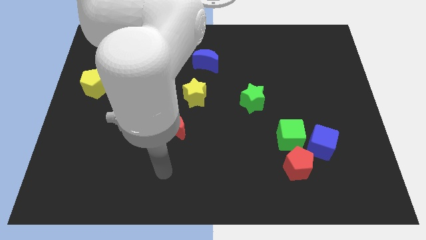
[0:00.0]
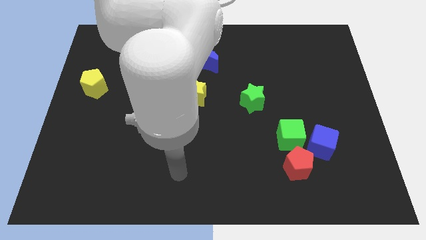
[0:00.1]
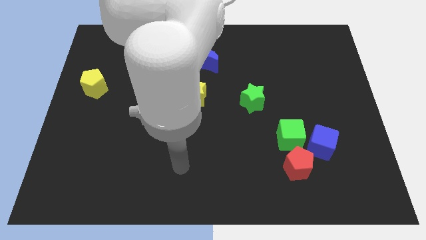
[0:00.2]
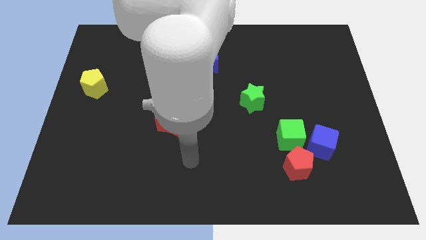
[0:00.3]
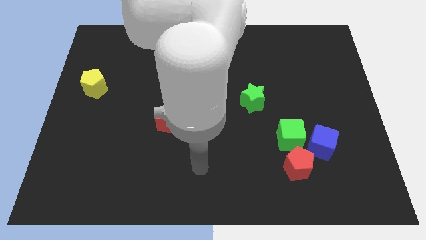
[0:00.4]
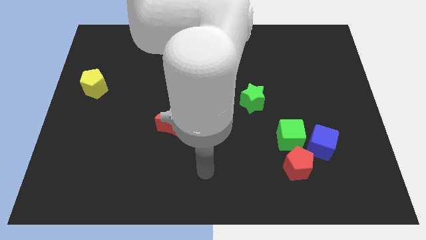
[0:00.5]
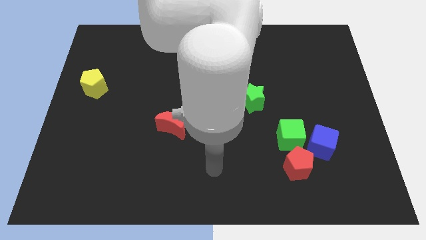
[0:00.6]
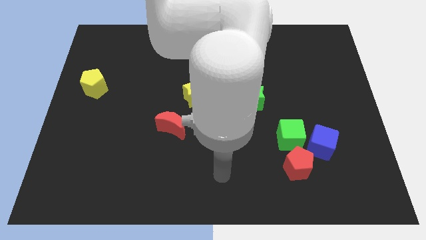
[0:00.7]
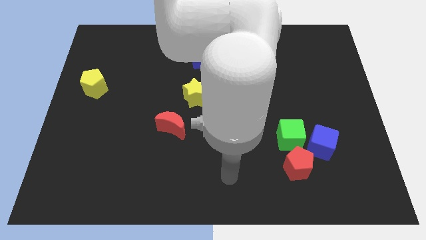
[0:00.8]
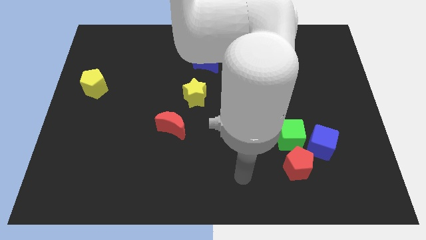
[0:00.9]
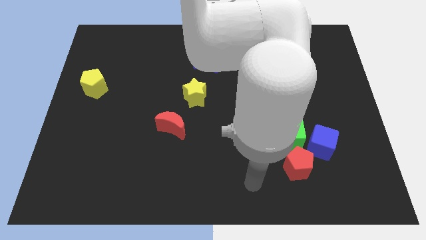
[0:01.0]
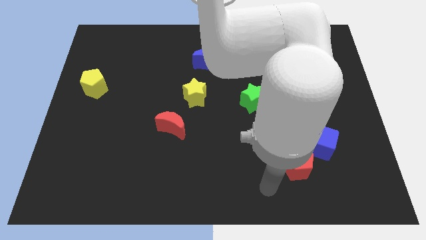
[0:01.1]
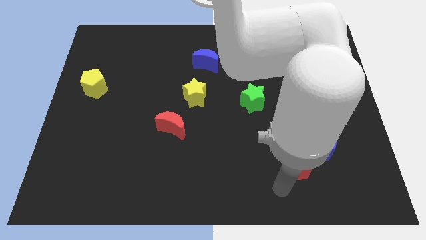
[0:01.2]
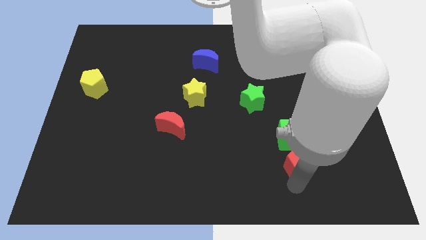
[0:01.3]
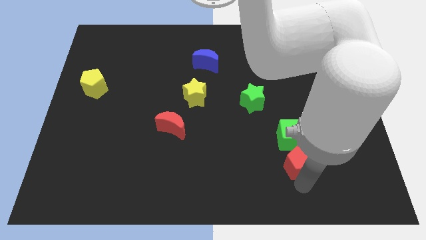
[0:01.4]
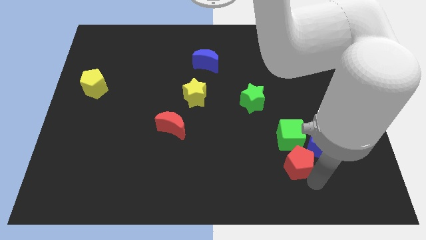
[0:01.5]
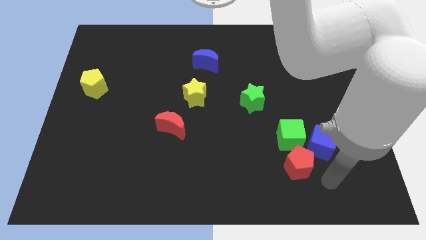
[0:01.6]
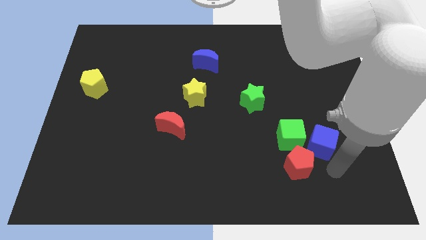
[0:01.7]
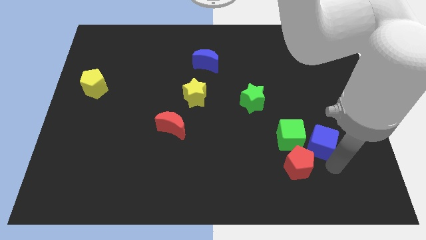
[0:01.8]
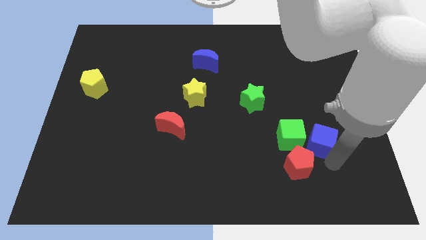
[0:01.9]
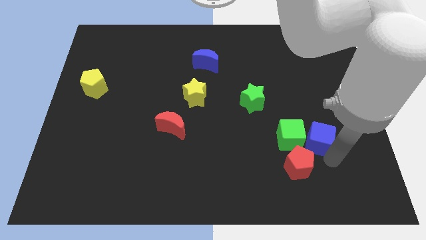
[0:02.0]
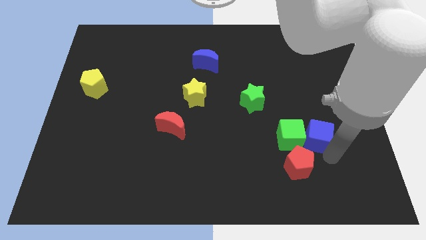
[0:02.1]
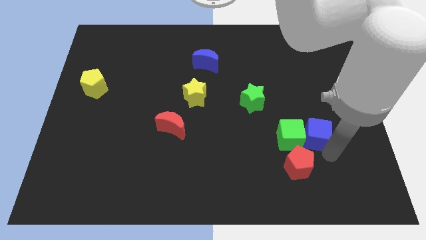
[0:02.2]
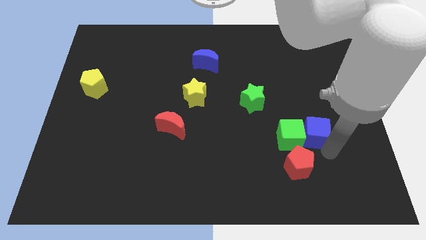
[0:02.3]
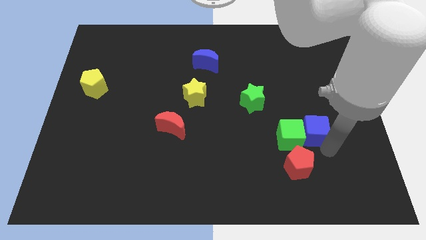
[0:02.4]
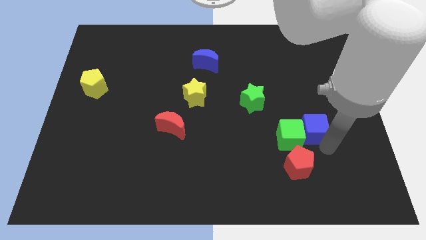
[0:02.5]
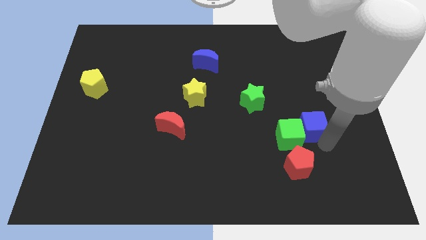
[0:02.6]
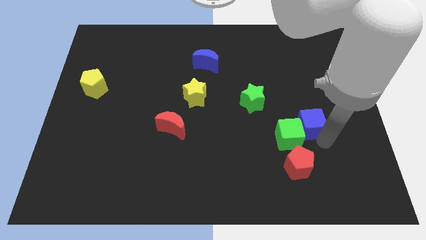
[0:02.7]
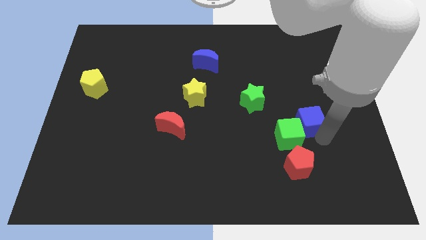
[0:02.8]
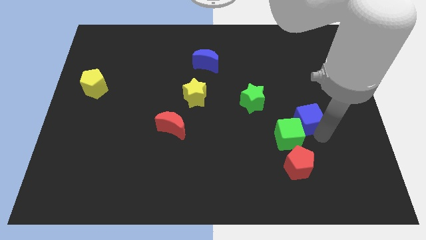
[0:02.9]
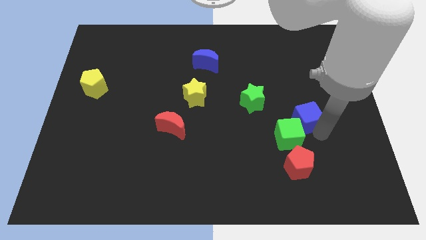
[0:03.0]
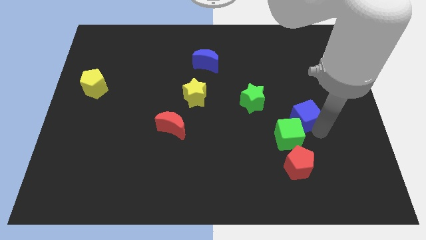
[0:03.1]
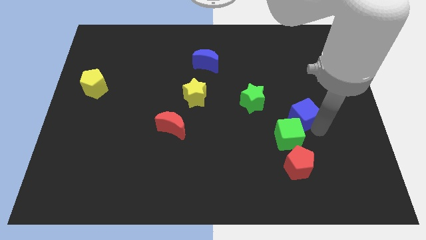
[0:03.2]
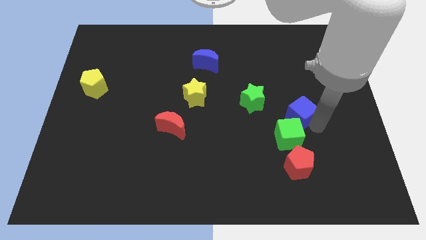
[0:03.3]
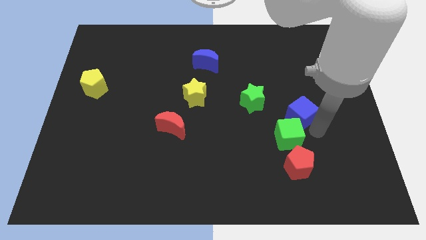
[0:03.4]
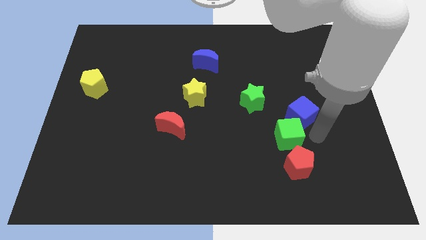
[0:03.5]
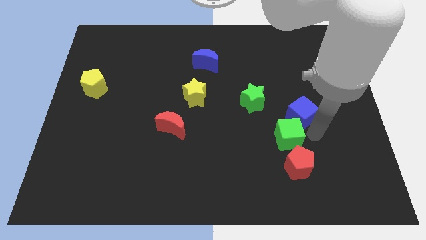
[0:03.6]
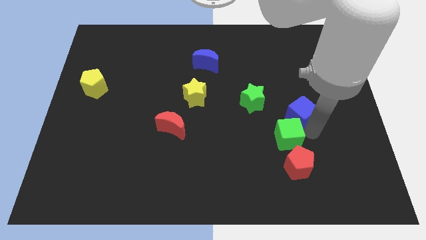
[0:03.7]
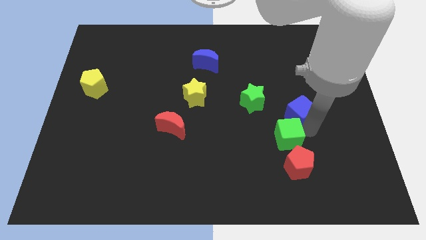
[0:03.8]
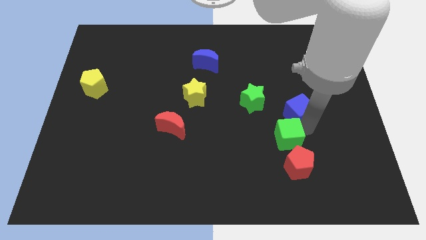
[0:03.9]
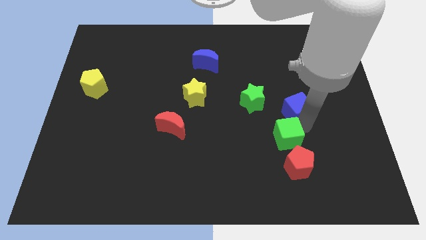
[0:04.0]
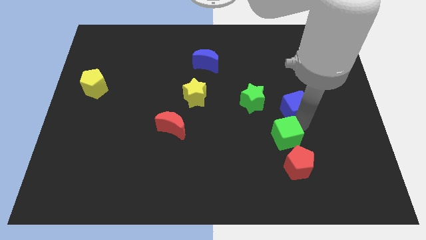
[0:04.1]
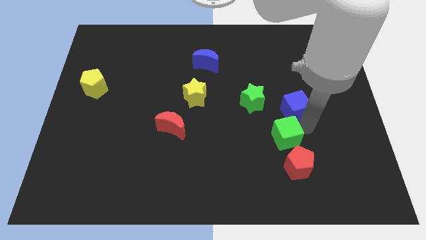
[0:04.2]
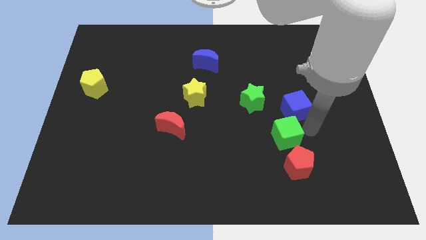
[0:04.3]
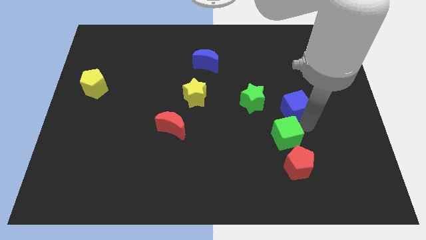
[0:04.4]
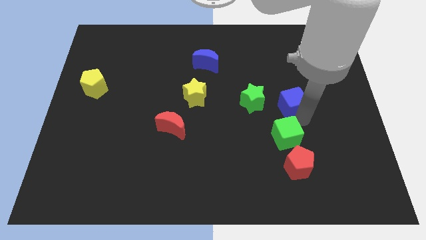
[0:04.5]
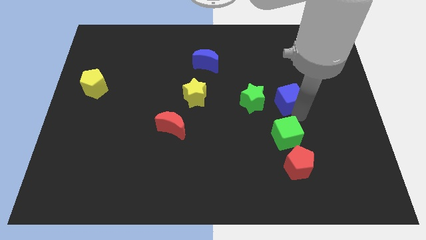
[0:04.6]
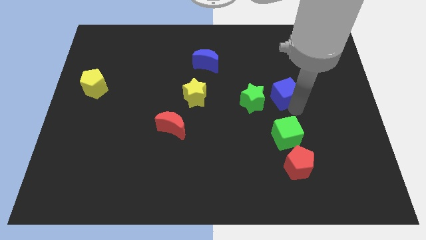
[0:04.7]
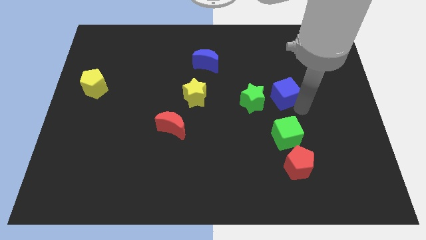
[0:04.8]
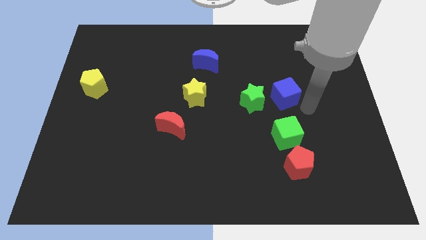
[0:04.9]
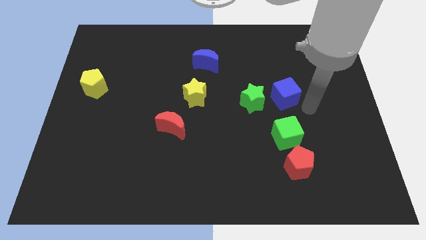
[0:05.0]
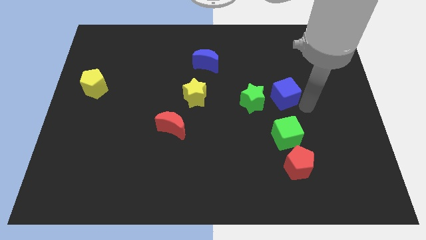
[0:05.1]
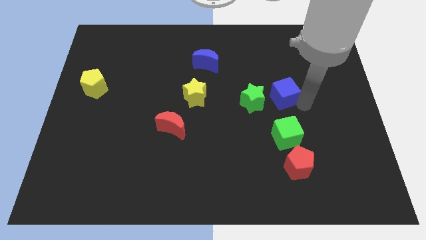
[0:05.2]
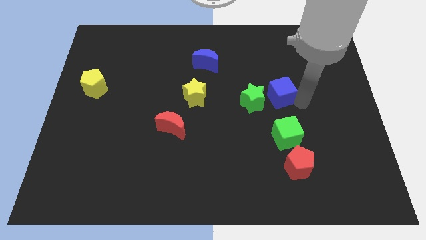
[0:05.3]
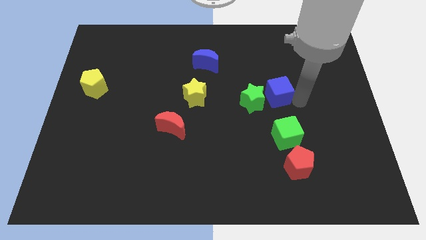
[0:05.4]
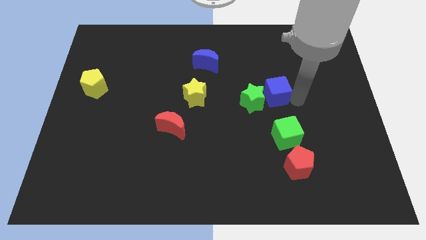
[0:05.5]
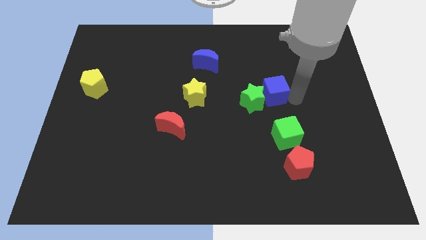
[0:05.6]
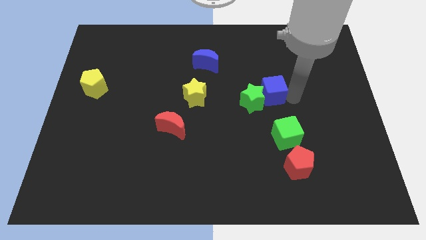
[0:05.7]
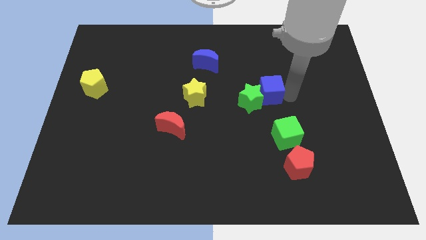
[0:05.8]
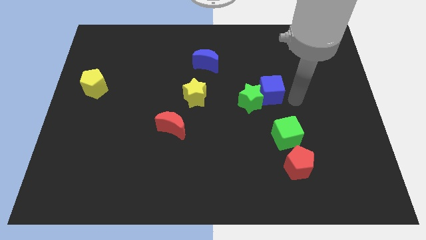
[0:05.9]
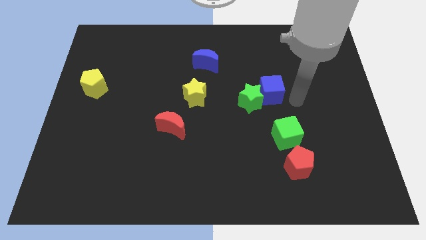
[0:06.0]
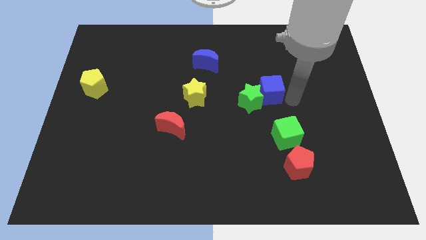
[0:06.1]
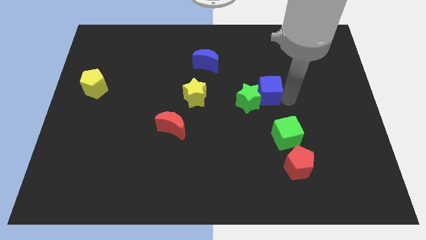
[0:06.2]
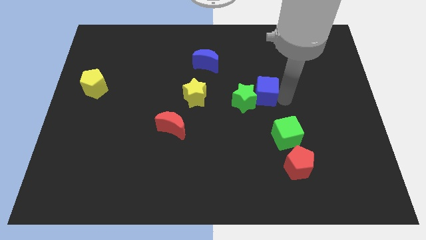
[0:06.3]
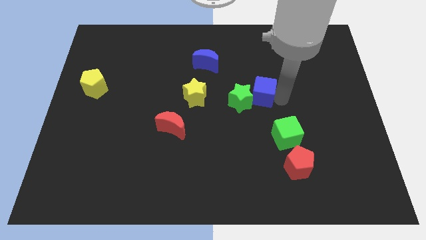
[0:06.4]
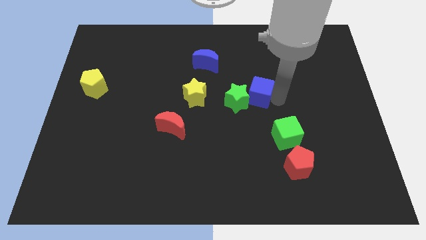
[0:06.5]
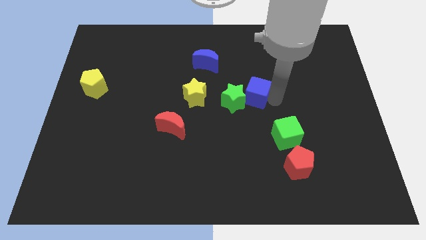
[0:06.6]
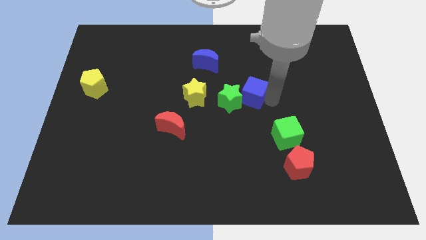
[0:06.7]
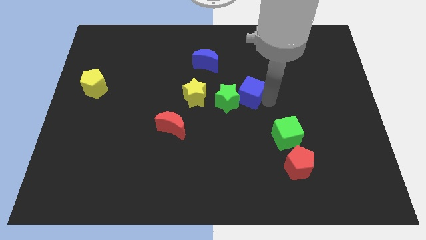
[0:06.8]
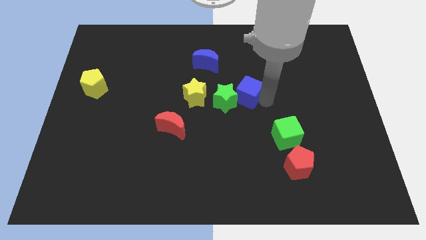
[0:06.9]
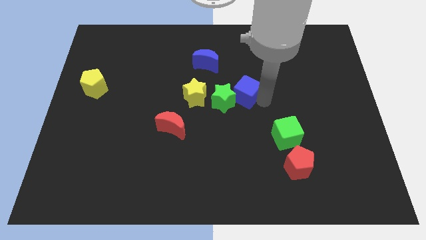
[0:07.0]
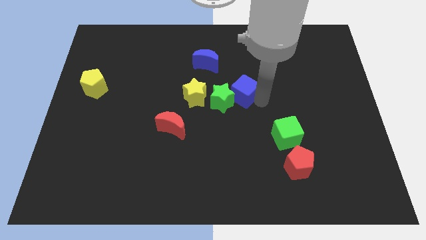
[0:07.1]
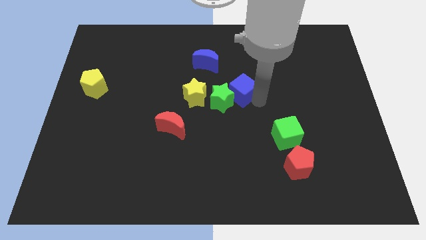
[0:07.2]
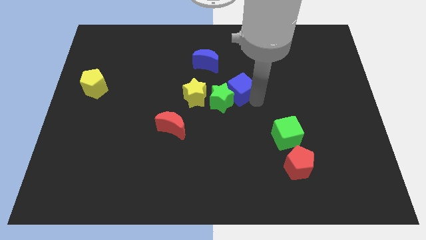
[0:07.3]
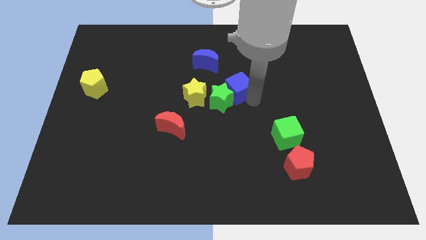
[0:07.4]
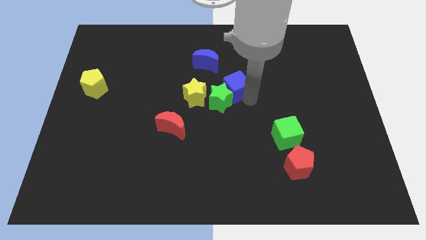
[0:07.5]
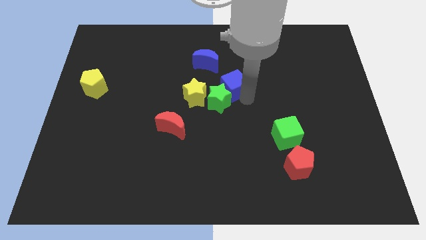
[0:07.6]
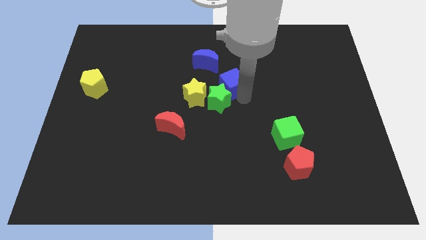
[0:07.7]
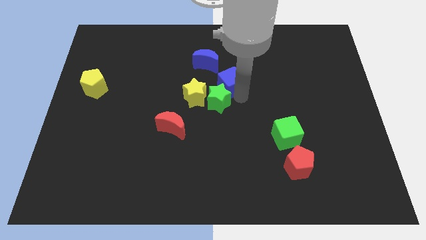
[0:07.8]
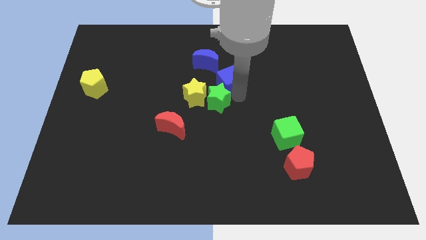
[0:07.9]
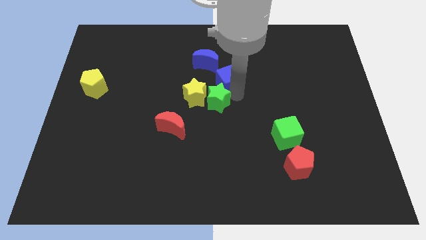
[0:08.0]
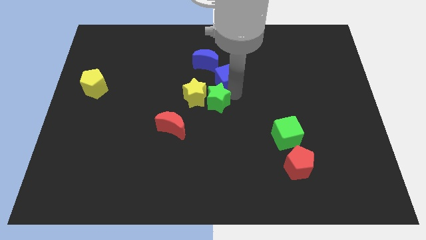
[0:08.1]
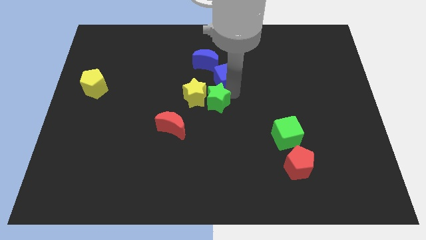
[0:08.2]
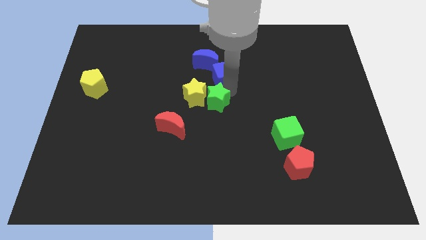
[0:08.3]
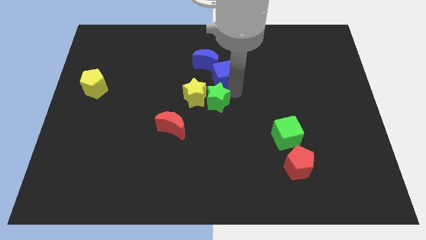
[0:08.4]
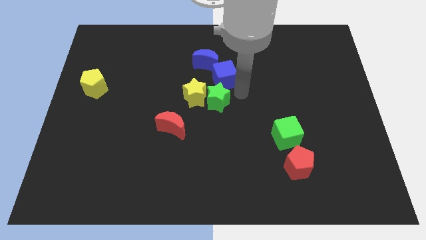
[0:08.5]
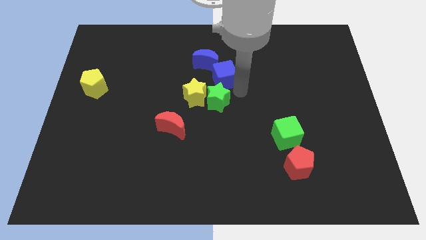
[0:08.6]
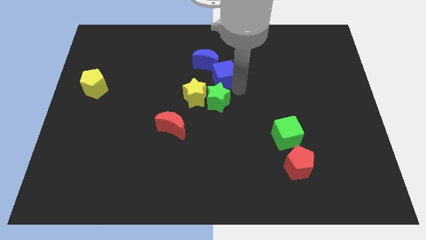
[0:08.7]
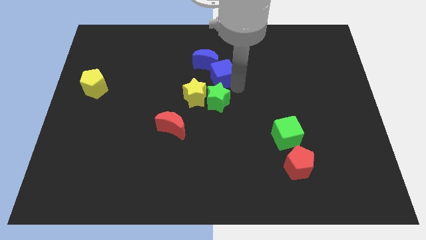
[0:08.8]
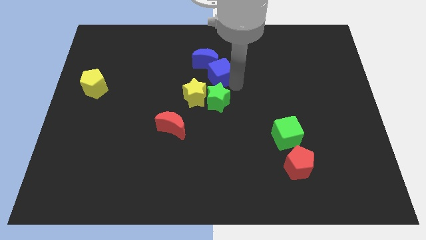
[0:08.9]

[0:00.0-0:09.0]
slide the blue cube next to the blue moon
